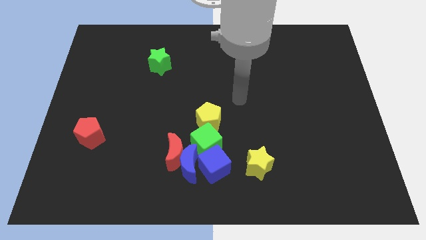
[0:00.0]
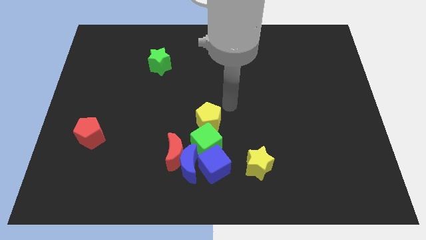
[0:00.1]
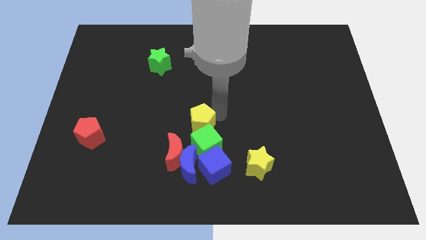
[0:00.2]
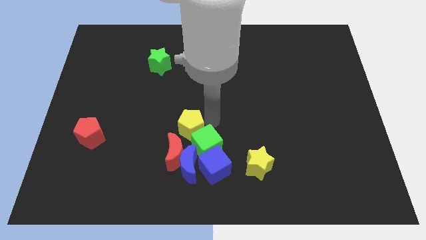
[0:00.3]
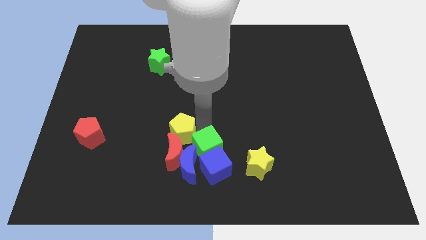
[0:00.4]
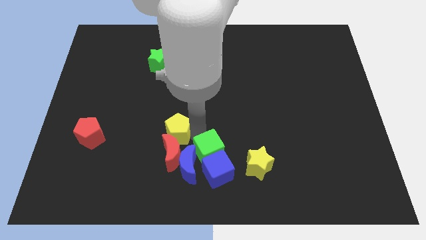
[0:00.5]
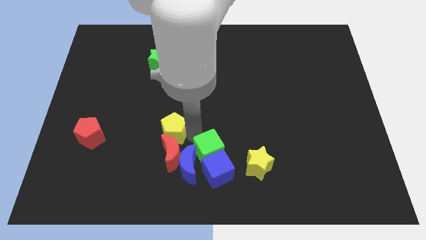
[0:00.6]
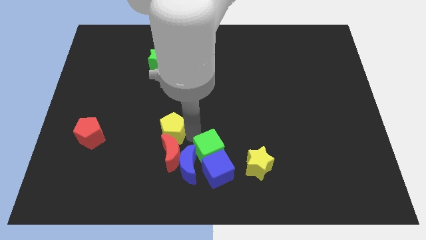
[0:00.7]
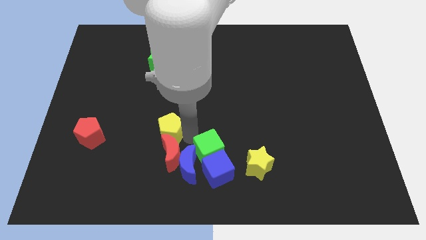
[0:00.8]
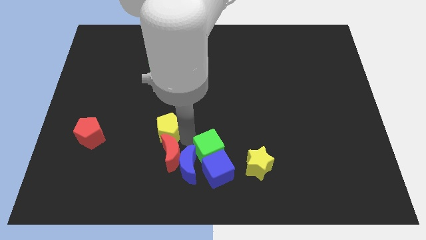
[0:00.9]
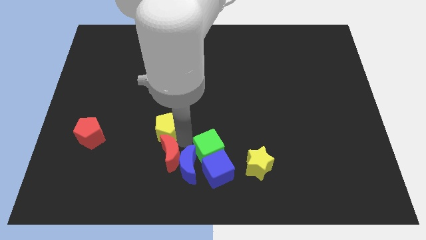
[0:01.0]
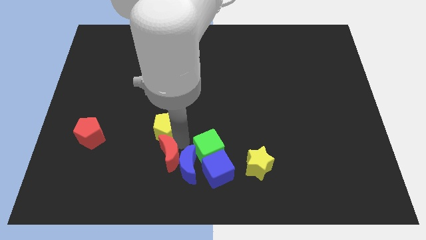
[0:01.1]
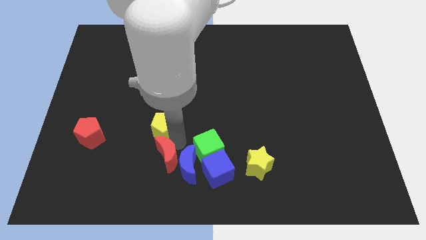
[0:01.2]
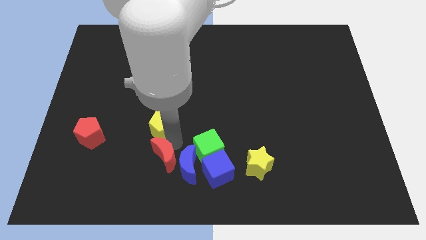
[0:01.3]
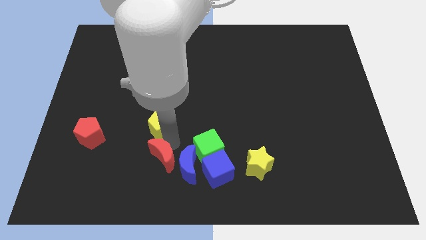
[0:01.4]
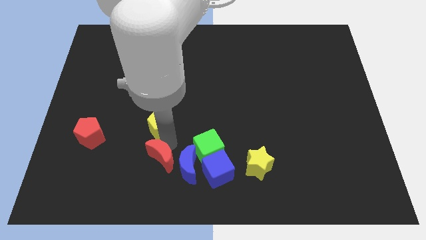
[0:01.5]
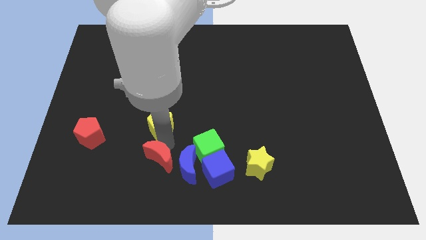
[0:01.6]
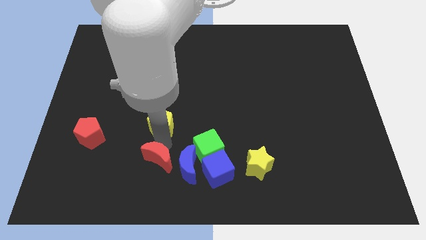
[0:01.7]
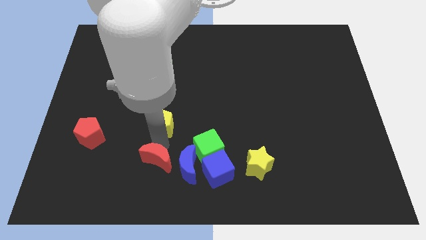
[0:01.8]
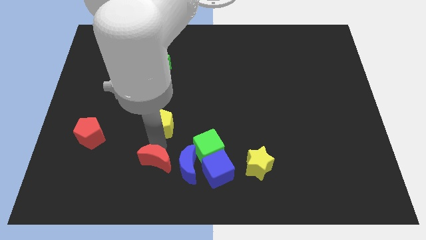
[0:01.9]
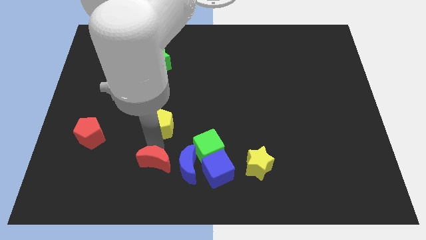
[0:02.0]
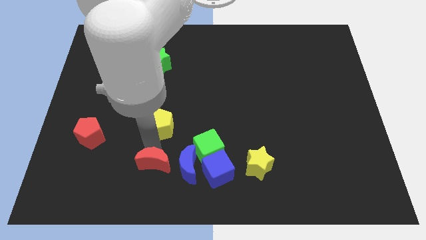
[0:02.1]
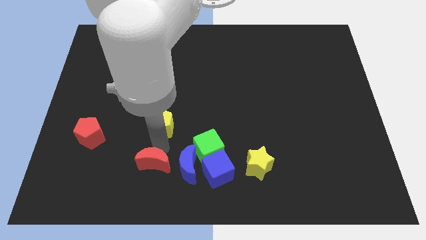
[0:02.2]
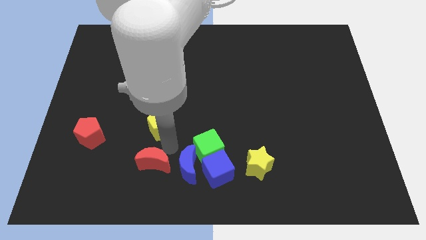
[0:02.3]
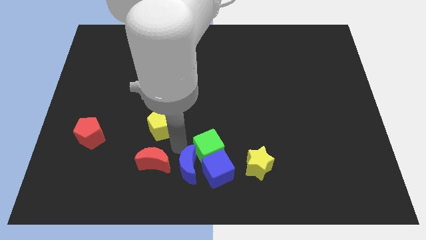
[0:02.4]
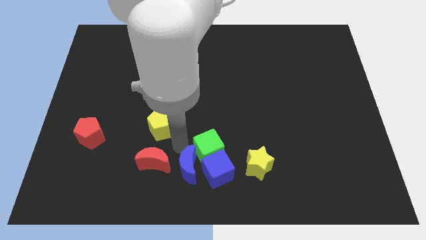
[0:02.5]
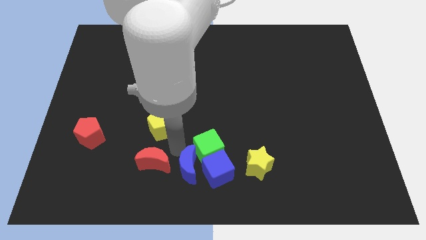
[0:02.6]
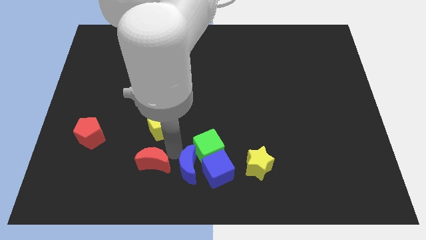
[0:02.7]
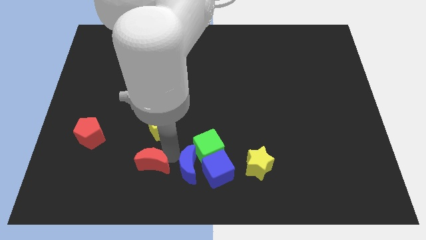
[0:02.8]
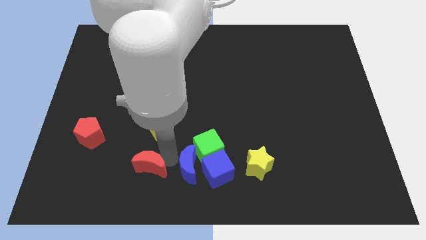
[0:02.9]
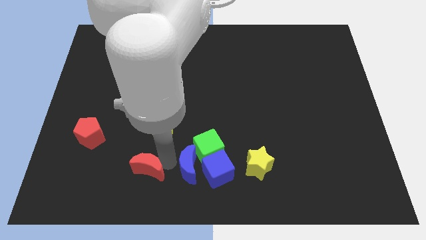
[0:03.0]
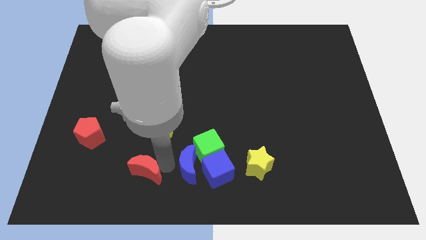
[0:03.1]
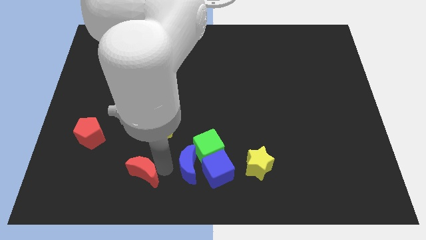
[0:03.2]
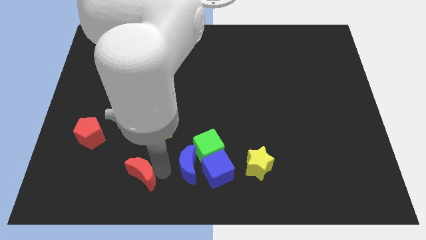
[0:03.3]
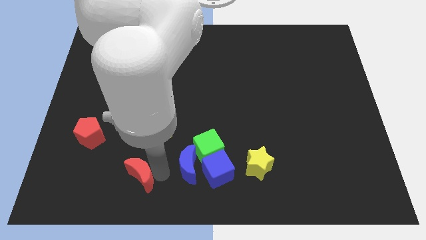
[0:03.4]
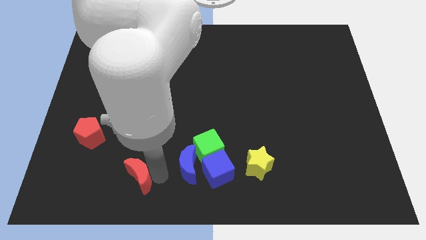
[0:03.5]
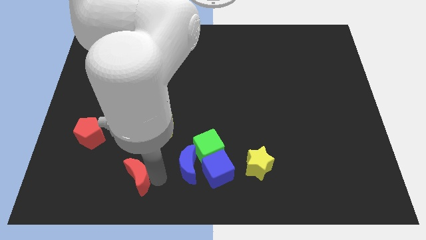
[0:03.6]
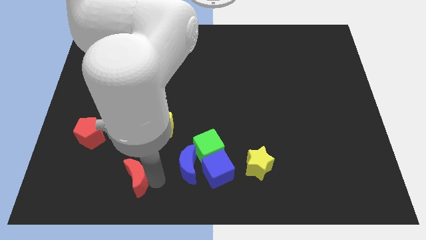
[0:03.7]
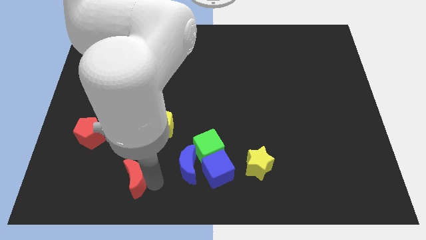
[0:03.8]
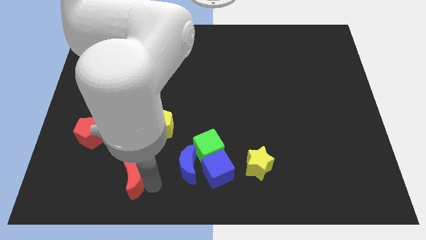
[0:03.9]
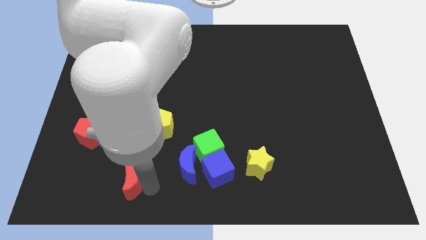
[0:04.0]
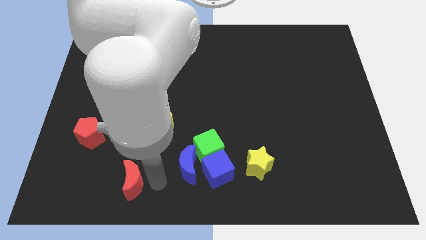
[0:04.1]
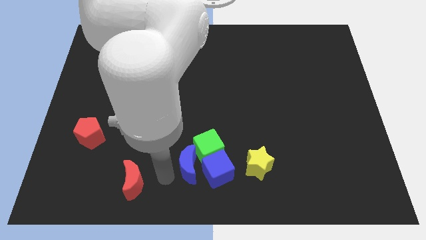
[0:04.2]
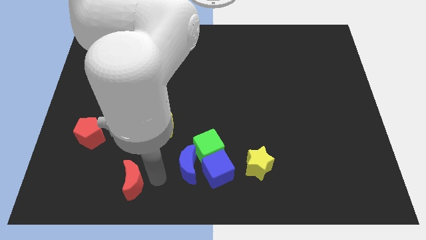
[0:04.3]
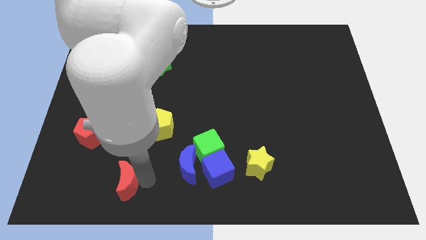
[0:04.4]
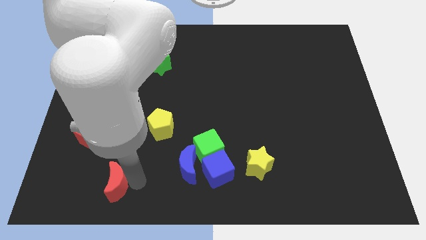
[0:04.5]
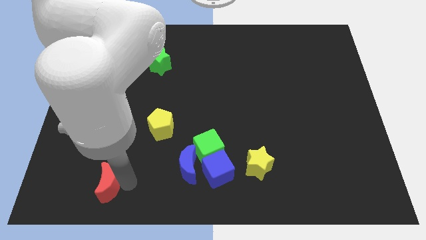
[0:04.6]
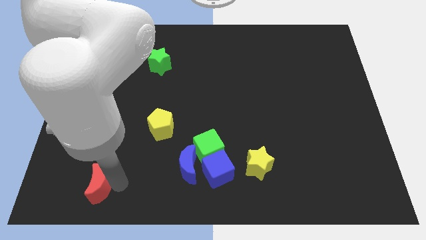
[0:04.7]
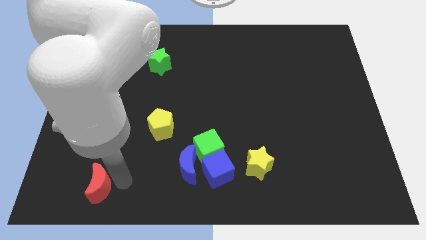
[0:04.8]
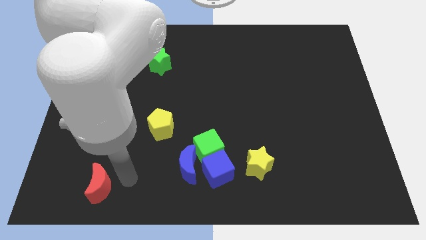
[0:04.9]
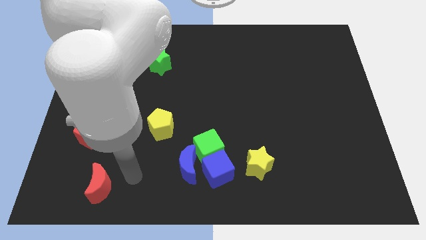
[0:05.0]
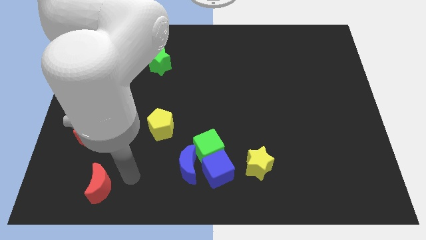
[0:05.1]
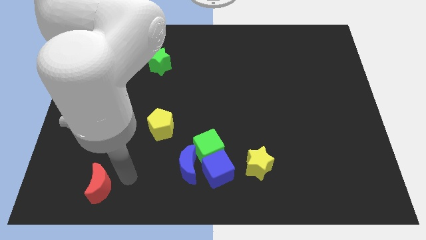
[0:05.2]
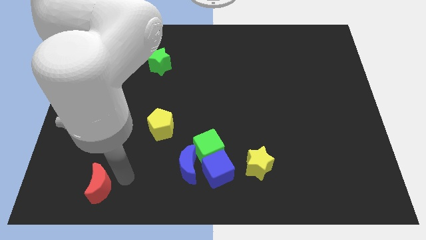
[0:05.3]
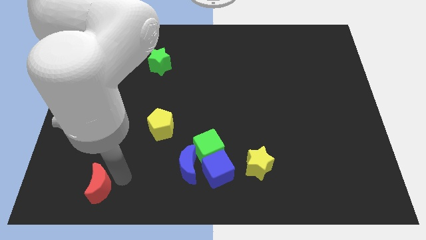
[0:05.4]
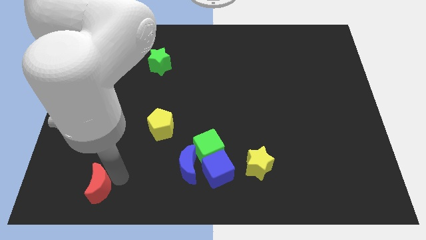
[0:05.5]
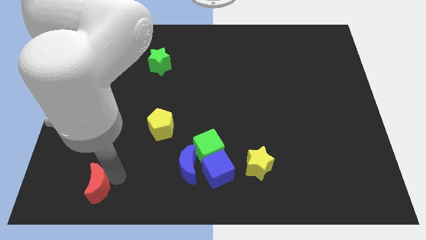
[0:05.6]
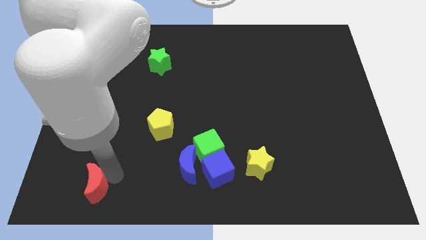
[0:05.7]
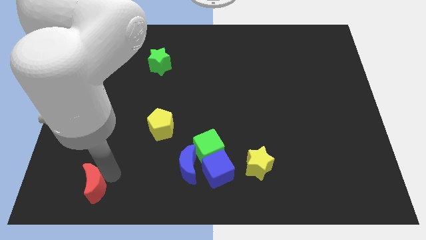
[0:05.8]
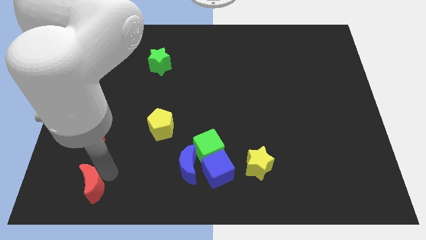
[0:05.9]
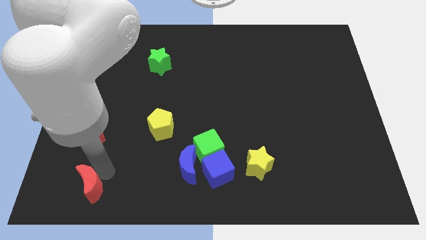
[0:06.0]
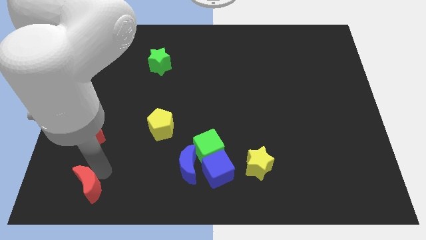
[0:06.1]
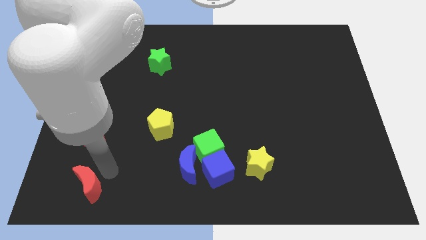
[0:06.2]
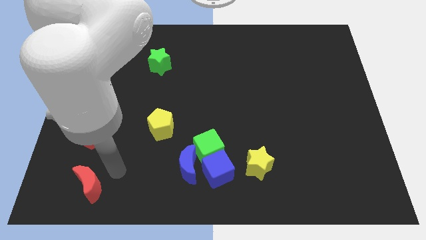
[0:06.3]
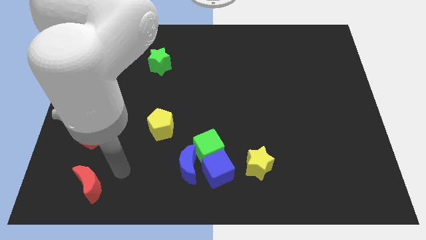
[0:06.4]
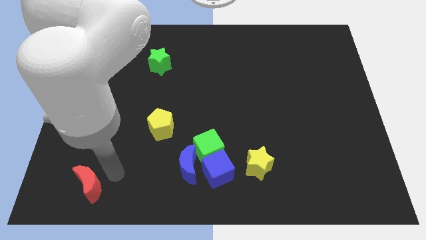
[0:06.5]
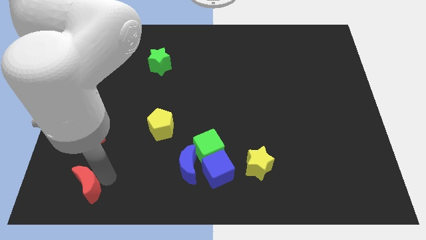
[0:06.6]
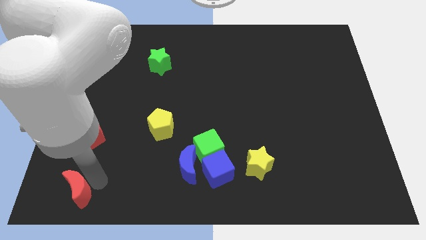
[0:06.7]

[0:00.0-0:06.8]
slide the red moon to the bottom left of the board

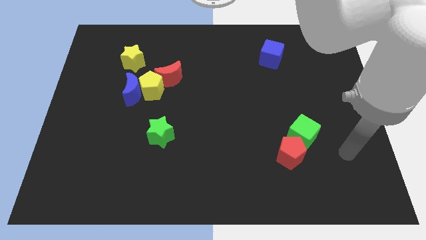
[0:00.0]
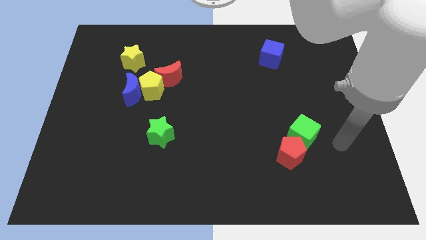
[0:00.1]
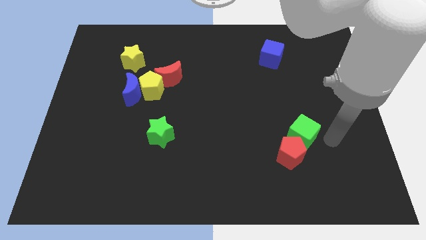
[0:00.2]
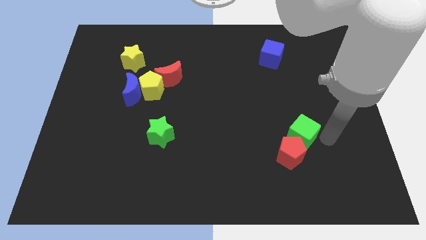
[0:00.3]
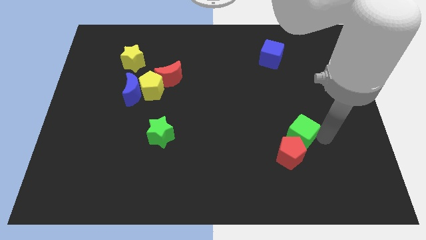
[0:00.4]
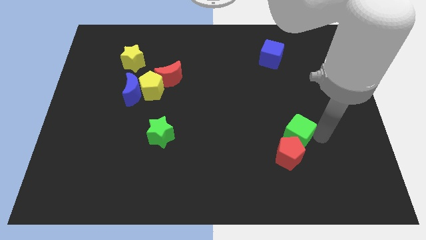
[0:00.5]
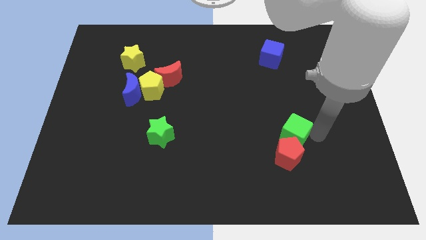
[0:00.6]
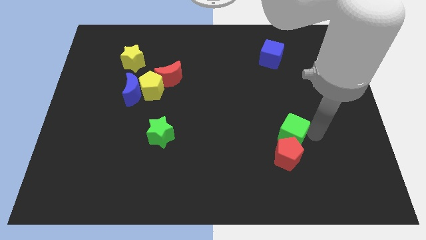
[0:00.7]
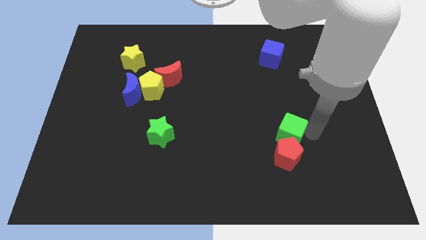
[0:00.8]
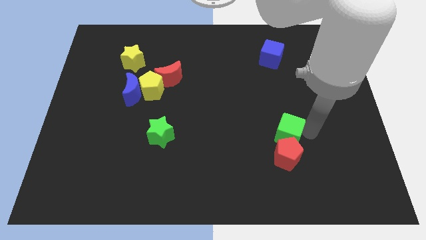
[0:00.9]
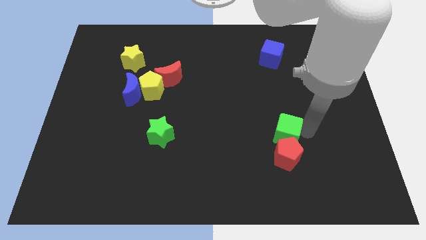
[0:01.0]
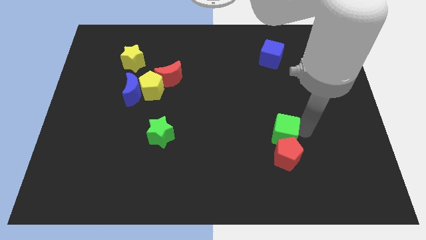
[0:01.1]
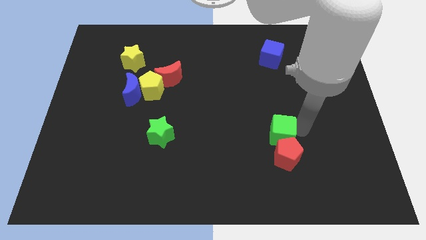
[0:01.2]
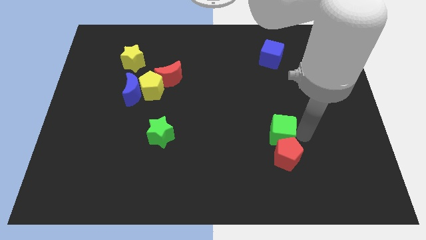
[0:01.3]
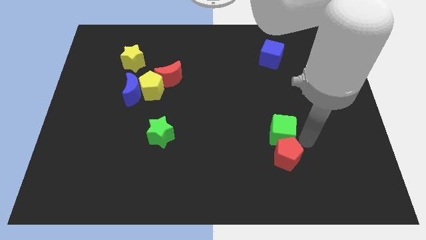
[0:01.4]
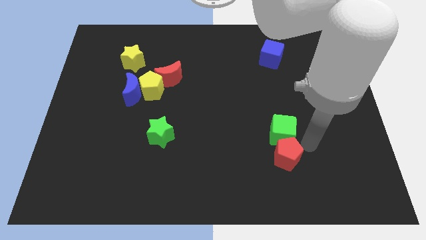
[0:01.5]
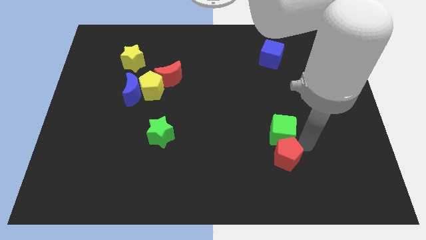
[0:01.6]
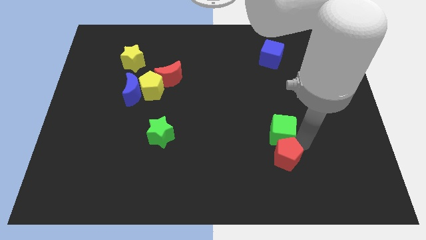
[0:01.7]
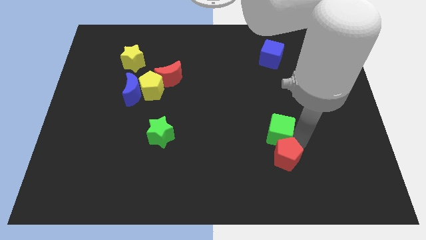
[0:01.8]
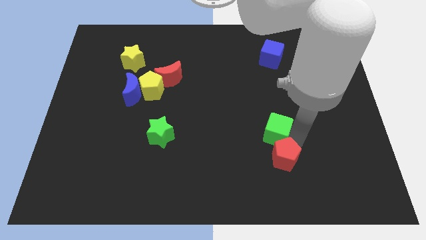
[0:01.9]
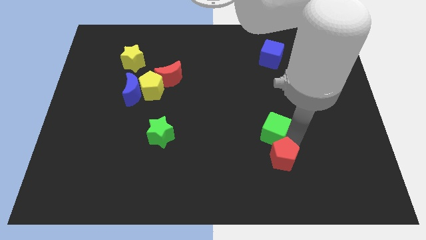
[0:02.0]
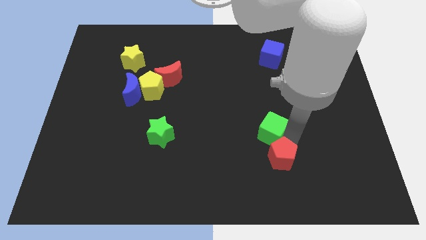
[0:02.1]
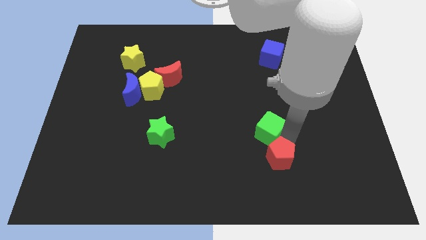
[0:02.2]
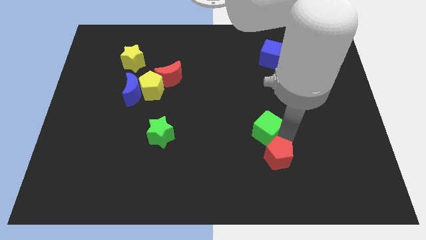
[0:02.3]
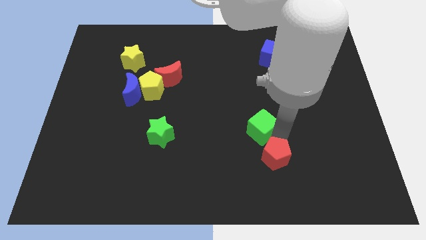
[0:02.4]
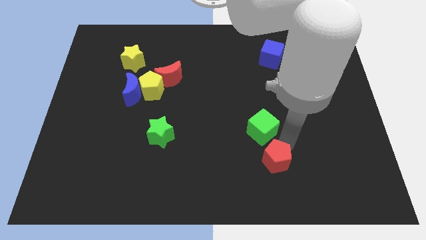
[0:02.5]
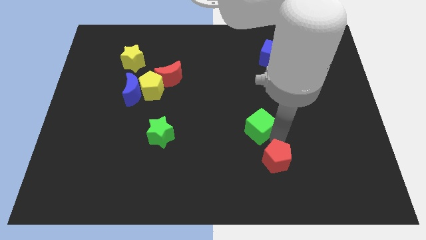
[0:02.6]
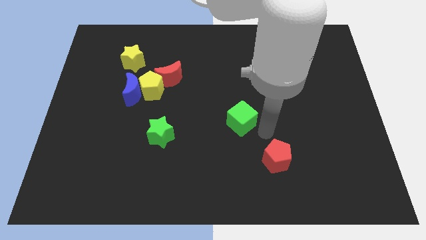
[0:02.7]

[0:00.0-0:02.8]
push the green cube to the center of the board
